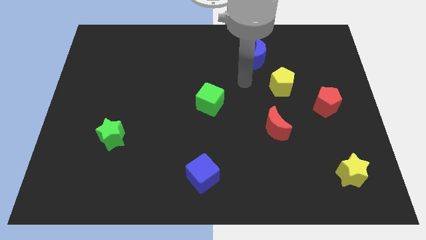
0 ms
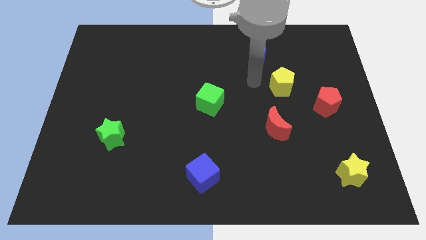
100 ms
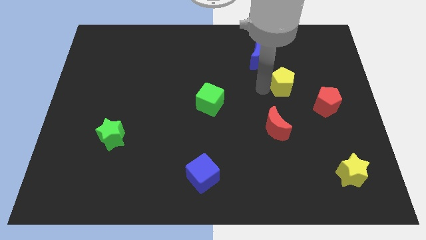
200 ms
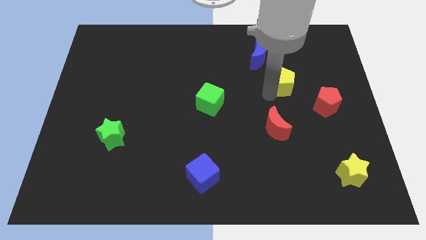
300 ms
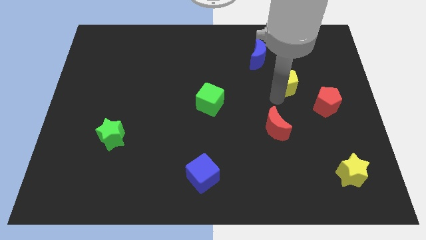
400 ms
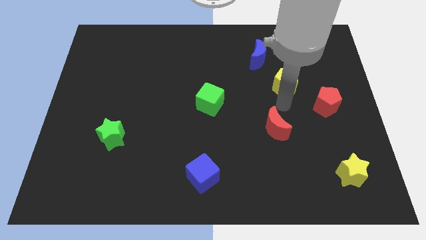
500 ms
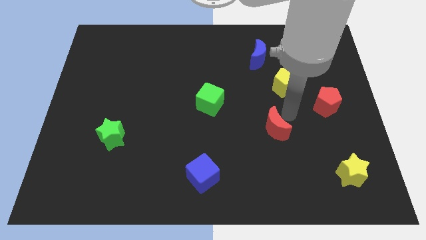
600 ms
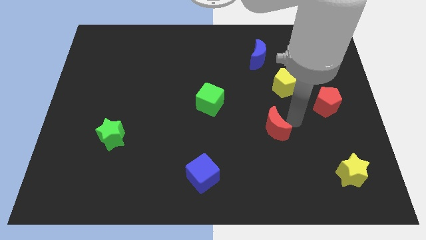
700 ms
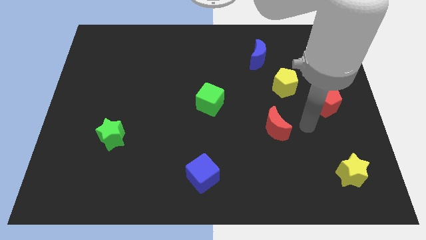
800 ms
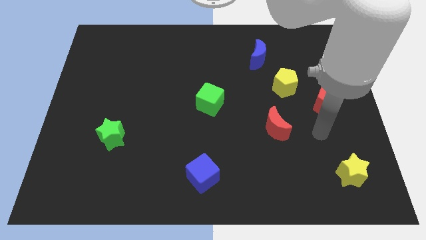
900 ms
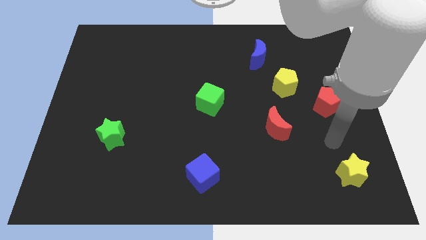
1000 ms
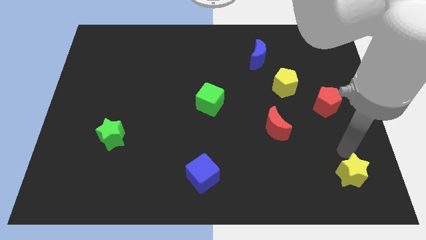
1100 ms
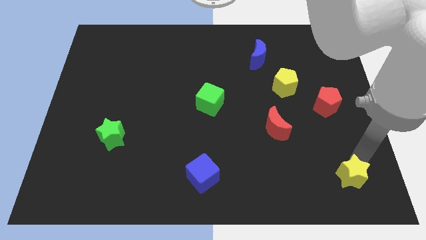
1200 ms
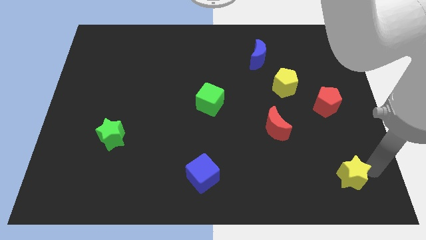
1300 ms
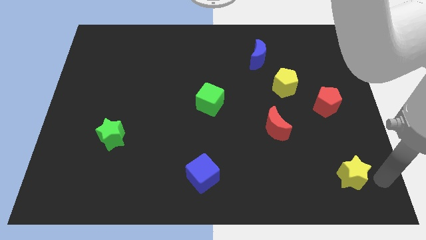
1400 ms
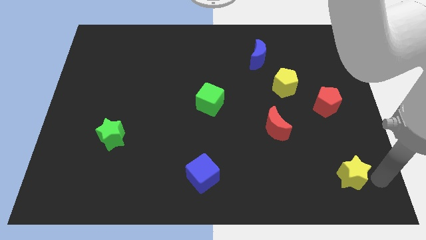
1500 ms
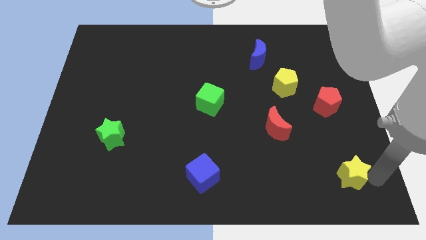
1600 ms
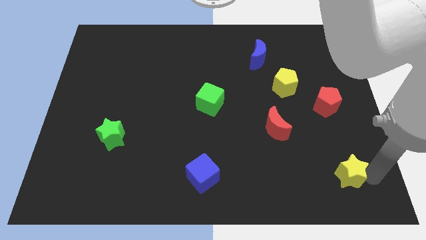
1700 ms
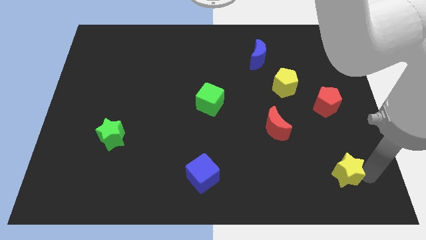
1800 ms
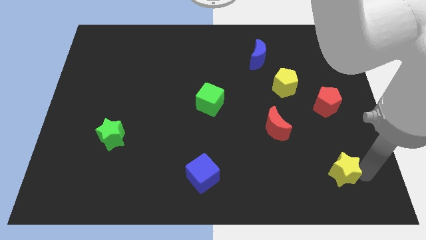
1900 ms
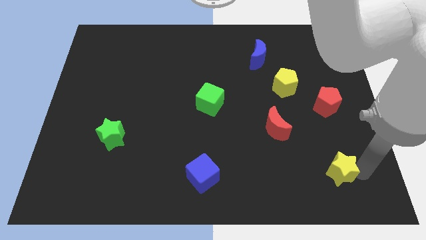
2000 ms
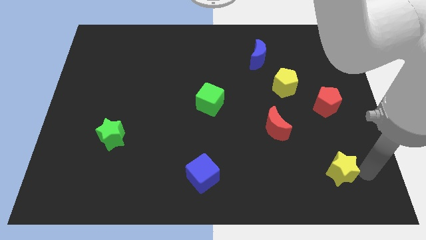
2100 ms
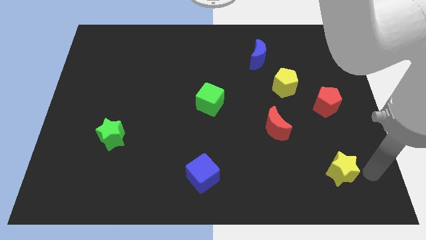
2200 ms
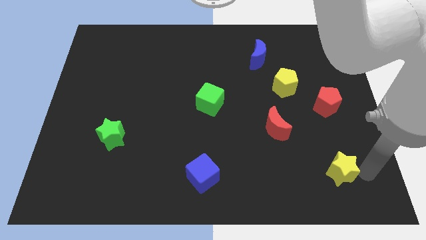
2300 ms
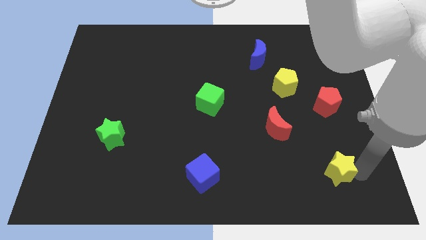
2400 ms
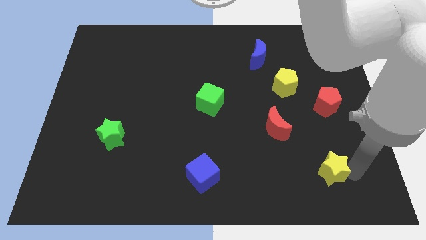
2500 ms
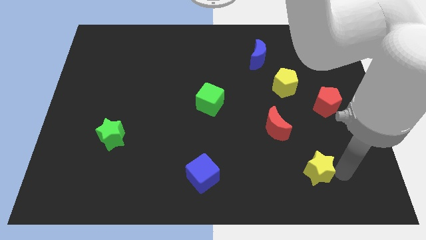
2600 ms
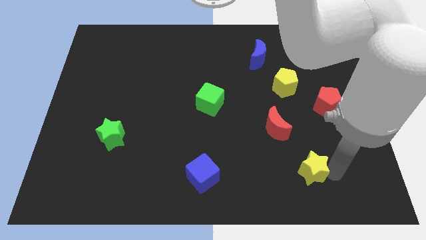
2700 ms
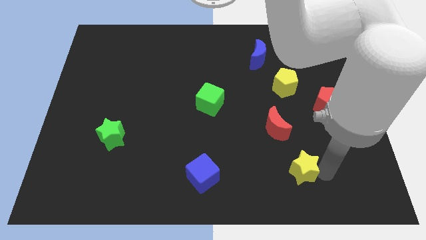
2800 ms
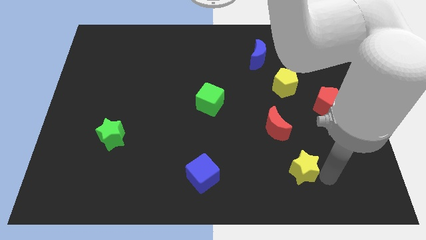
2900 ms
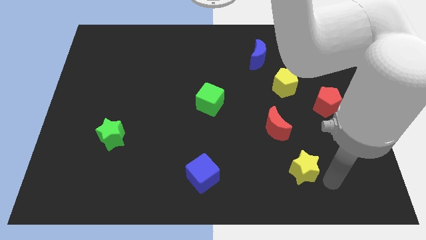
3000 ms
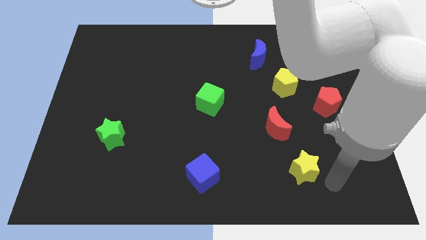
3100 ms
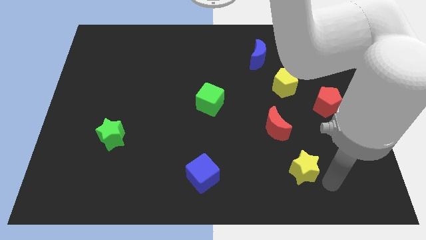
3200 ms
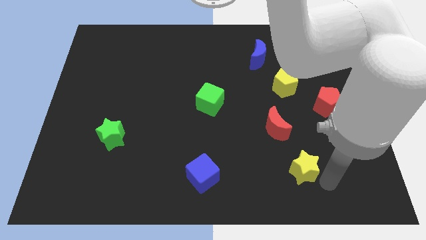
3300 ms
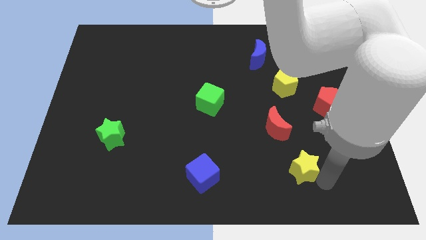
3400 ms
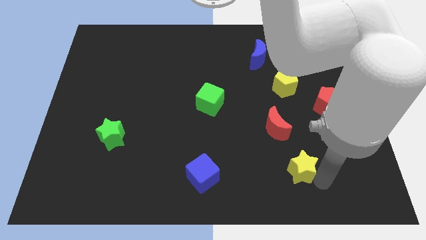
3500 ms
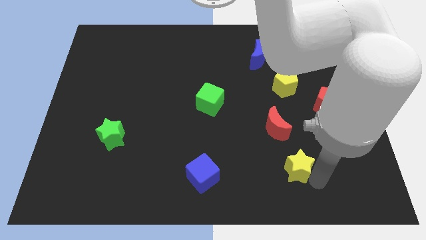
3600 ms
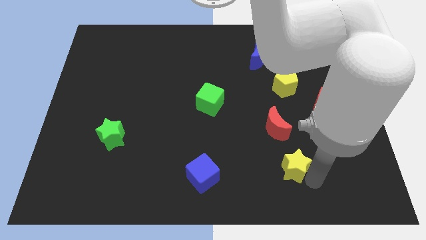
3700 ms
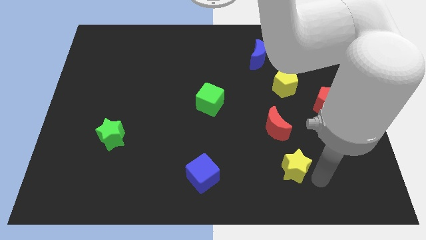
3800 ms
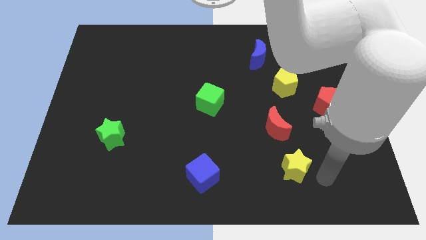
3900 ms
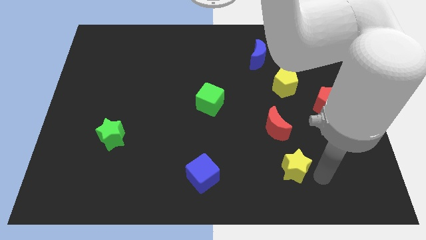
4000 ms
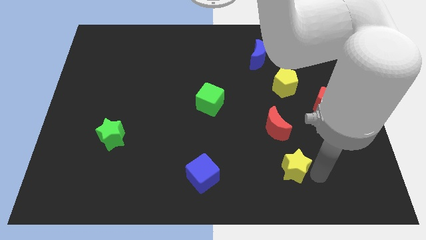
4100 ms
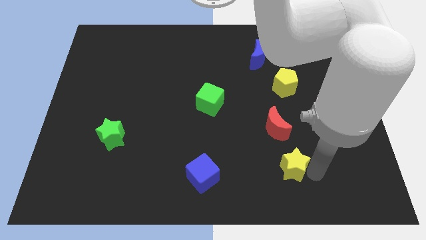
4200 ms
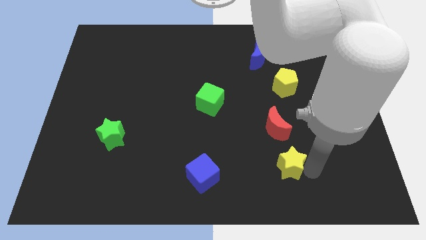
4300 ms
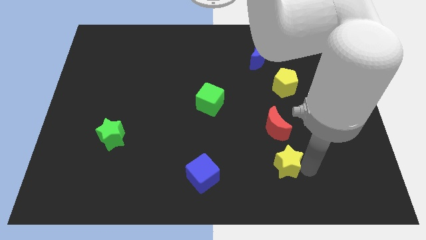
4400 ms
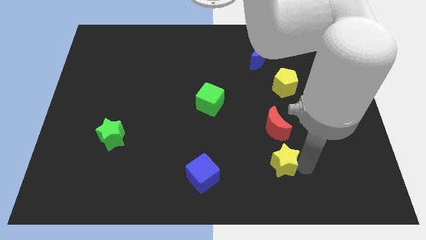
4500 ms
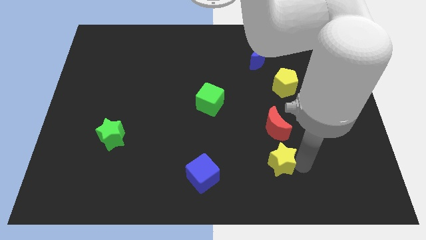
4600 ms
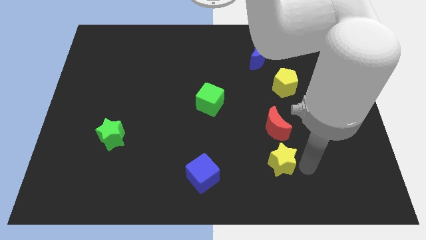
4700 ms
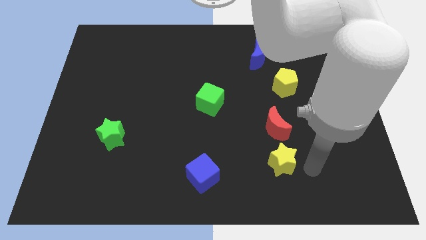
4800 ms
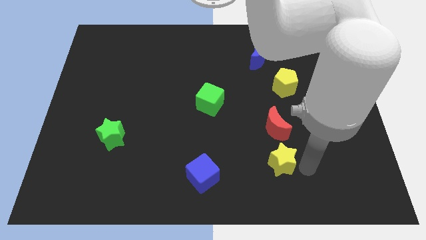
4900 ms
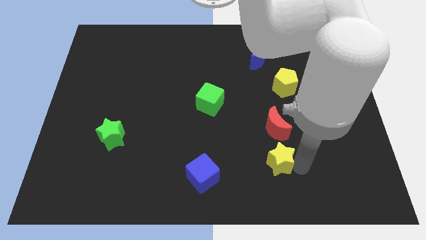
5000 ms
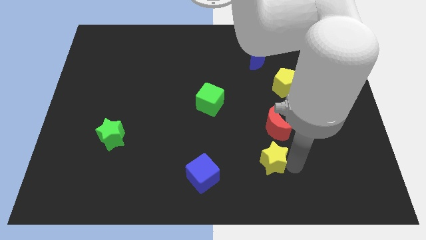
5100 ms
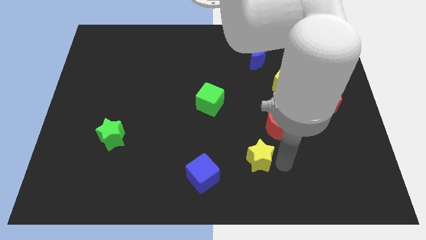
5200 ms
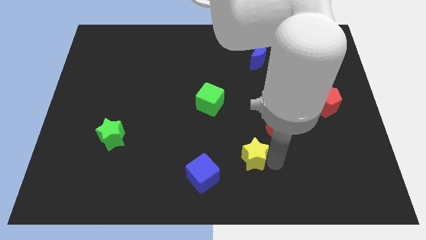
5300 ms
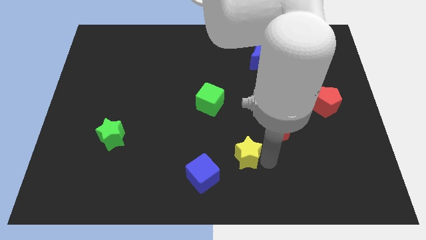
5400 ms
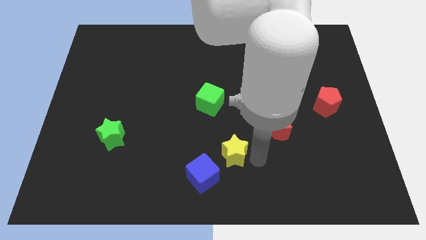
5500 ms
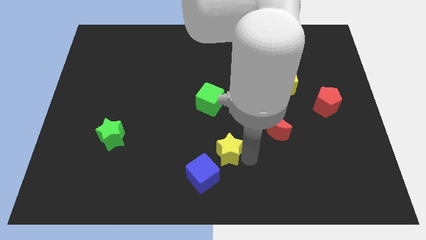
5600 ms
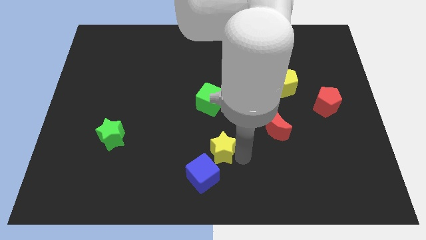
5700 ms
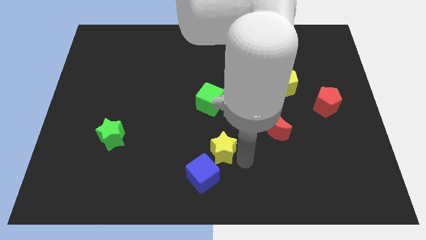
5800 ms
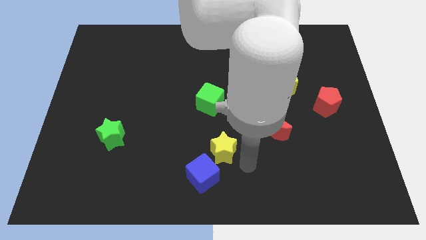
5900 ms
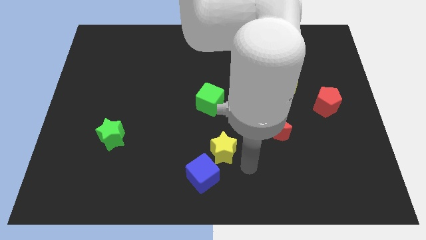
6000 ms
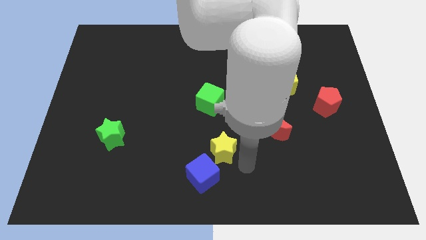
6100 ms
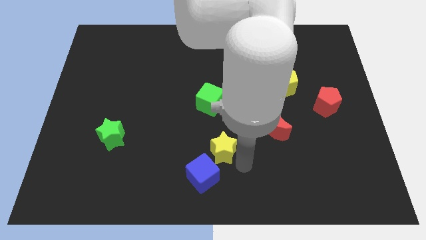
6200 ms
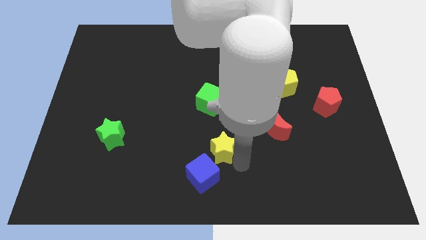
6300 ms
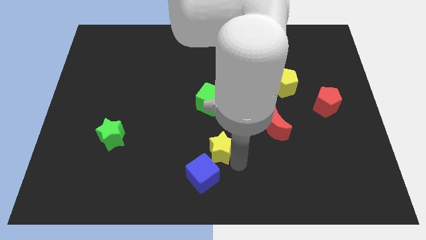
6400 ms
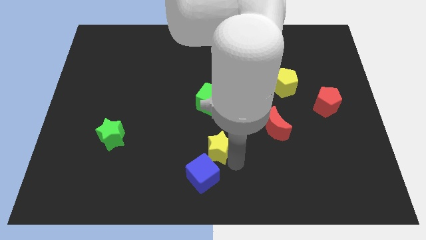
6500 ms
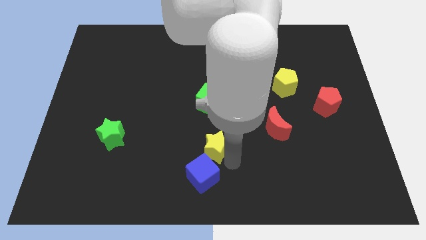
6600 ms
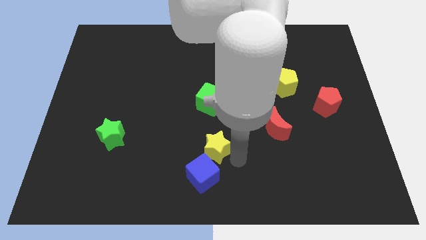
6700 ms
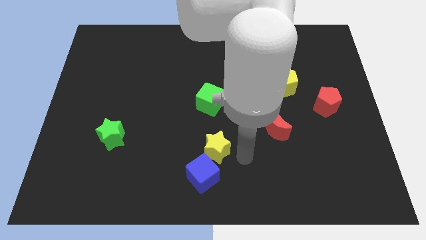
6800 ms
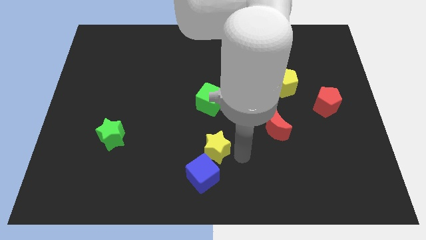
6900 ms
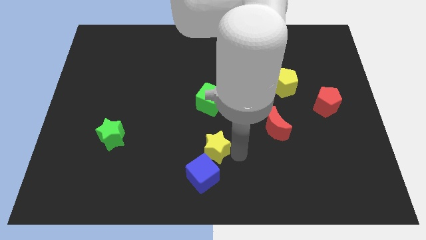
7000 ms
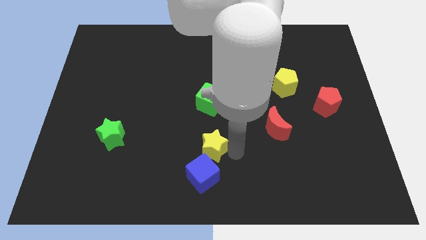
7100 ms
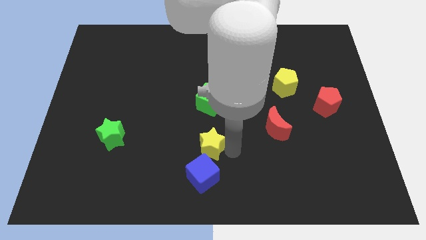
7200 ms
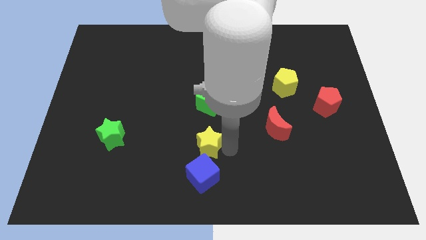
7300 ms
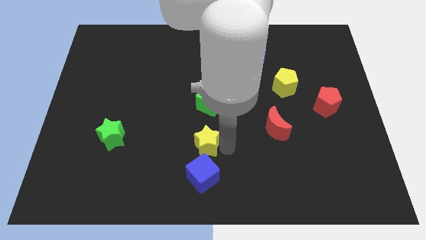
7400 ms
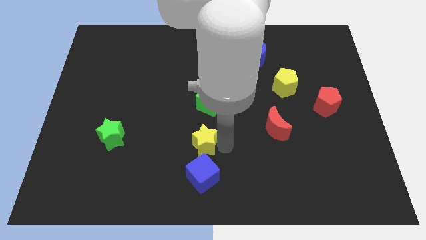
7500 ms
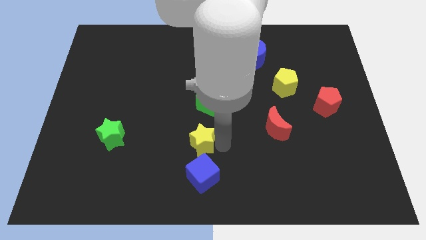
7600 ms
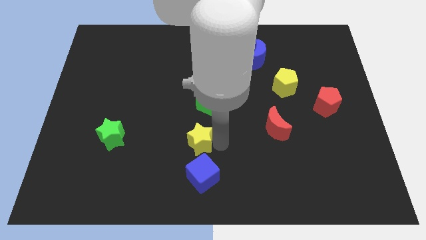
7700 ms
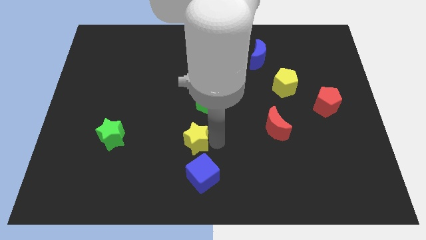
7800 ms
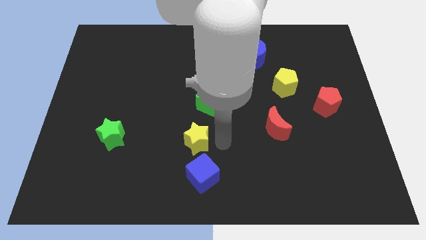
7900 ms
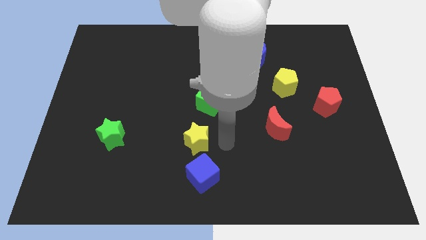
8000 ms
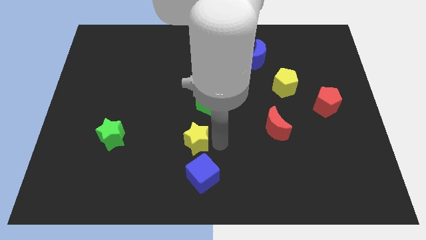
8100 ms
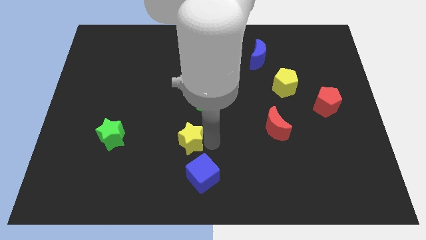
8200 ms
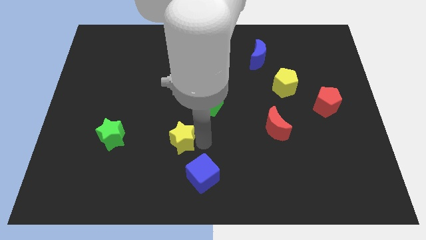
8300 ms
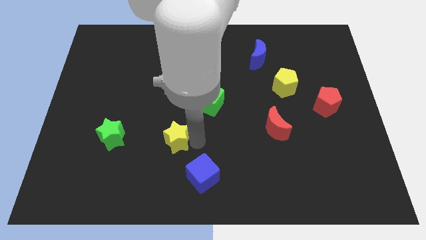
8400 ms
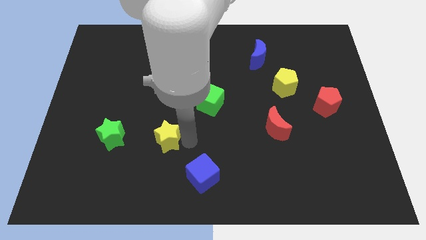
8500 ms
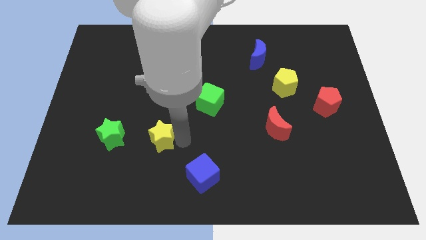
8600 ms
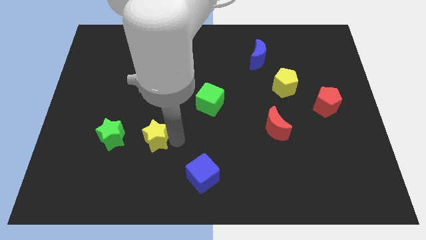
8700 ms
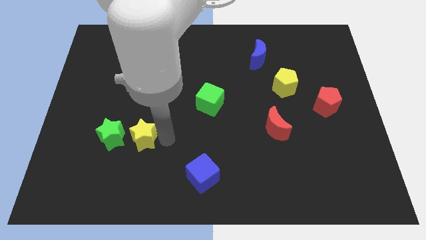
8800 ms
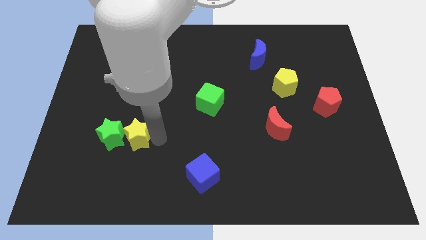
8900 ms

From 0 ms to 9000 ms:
push the yellow star close to the green star
